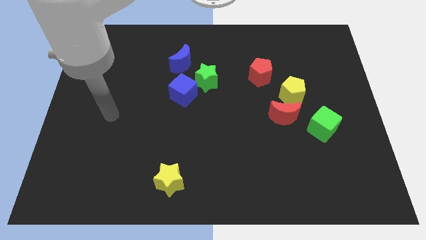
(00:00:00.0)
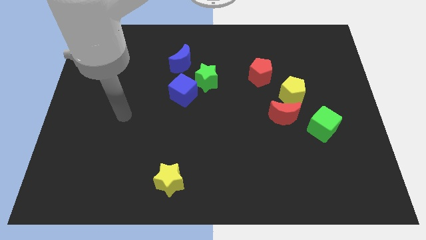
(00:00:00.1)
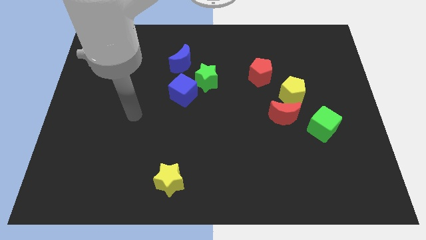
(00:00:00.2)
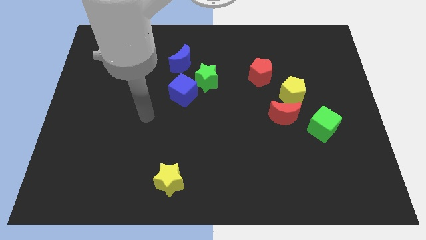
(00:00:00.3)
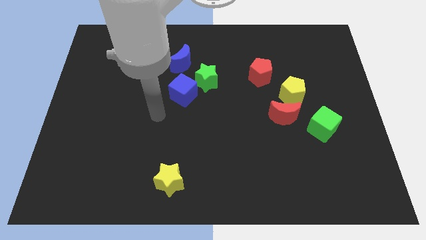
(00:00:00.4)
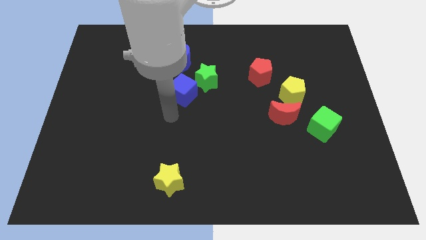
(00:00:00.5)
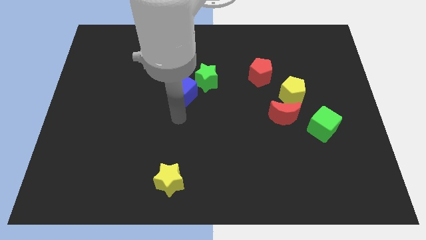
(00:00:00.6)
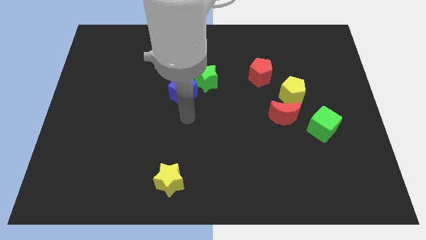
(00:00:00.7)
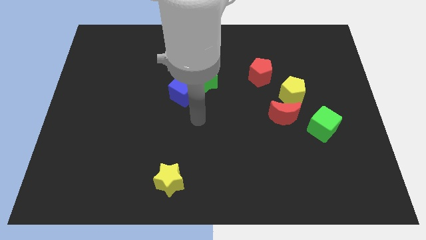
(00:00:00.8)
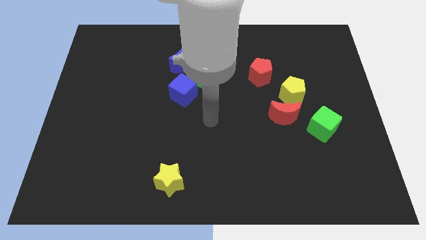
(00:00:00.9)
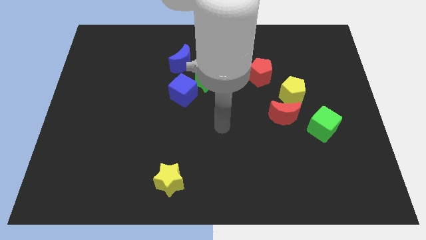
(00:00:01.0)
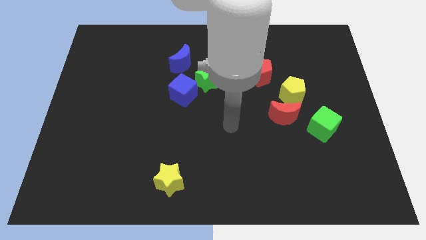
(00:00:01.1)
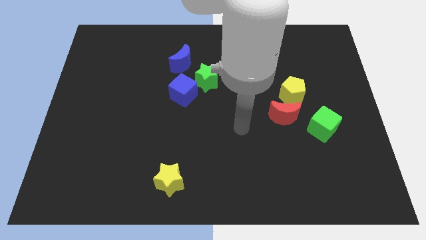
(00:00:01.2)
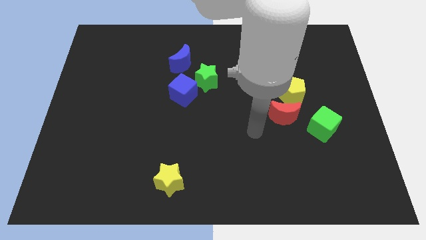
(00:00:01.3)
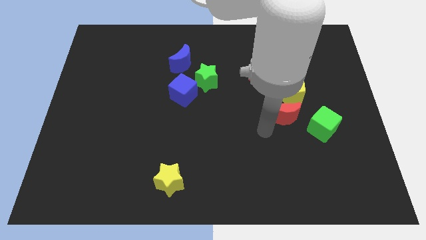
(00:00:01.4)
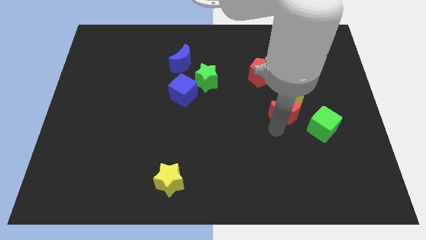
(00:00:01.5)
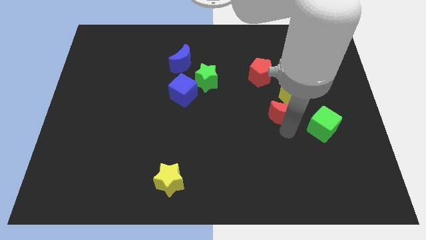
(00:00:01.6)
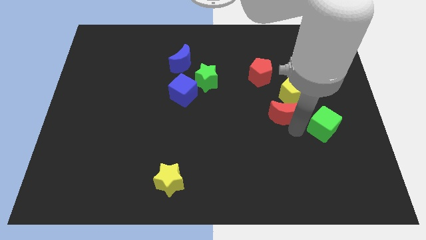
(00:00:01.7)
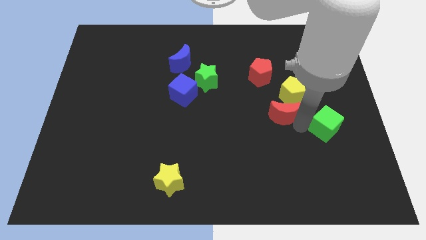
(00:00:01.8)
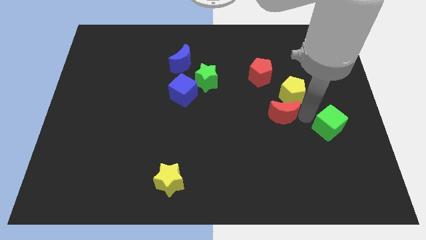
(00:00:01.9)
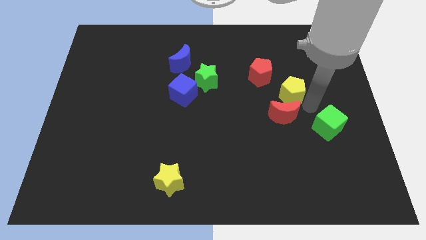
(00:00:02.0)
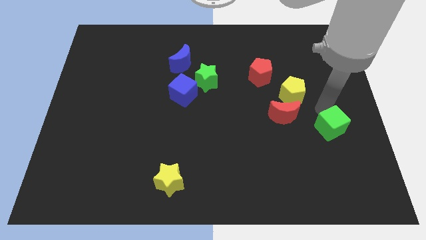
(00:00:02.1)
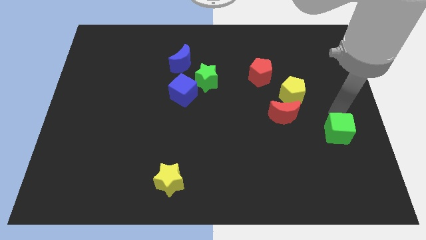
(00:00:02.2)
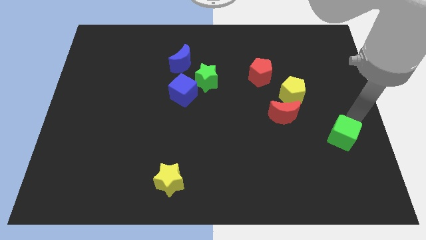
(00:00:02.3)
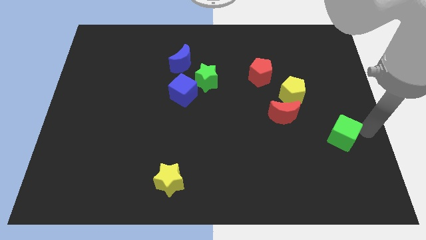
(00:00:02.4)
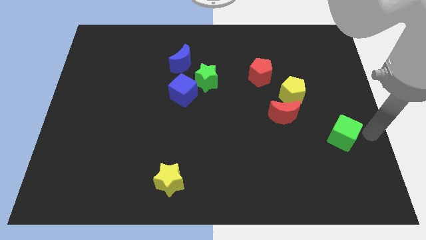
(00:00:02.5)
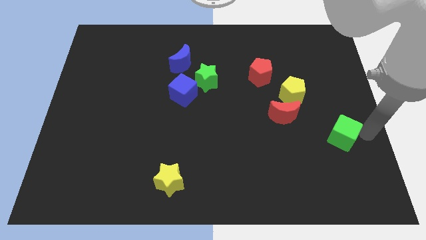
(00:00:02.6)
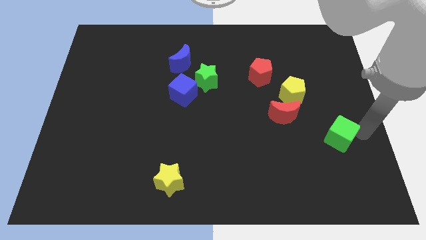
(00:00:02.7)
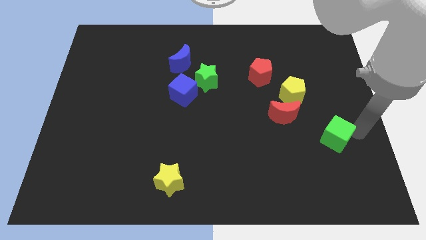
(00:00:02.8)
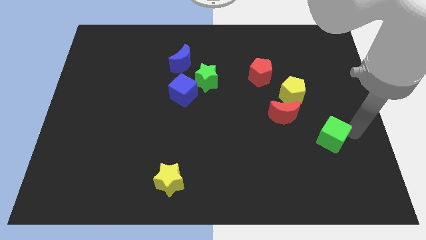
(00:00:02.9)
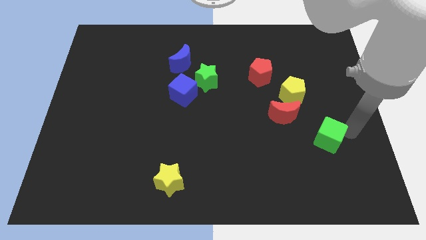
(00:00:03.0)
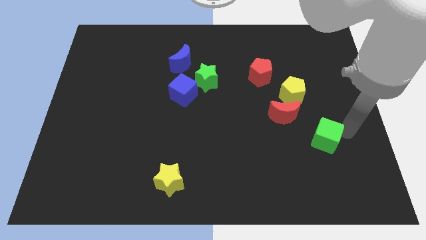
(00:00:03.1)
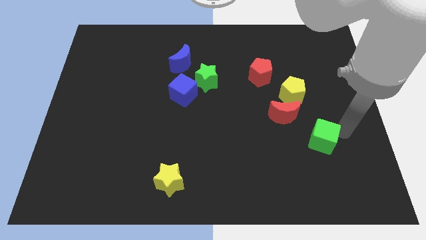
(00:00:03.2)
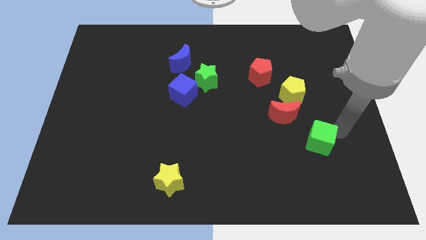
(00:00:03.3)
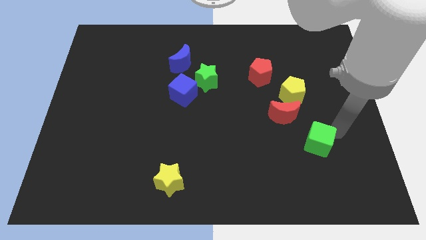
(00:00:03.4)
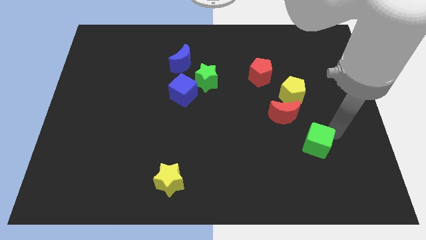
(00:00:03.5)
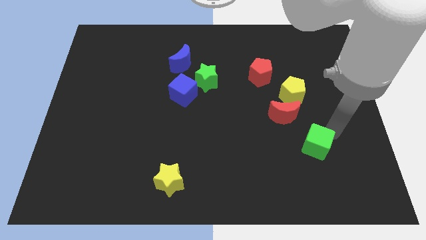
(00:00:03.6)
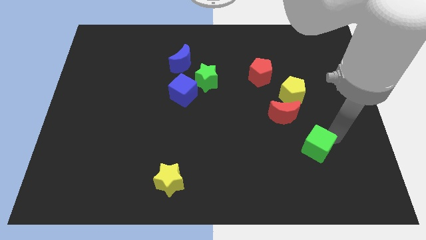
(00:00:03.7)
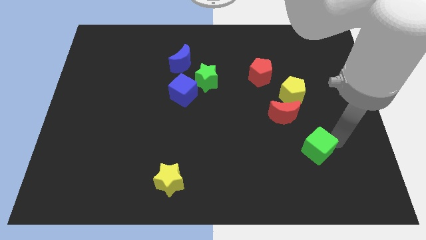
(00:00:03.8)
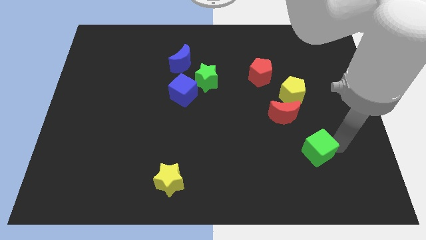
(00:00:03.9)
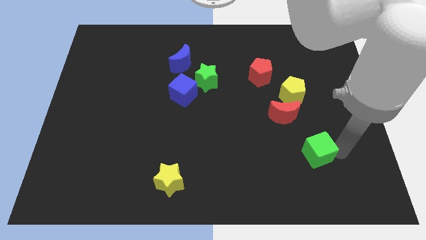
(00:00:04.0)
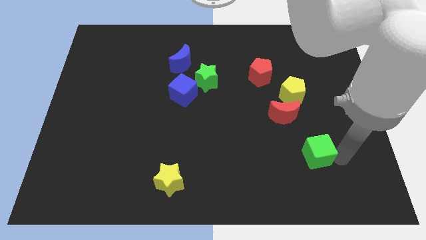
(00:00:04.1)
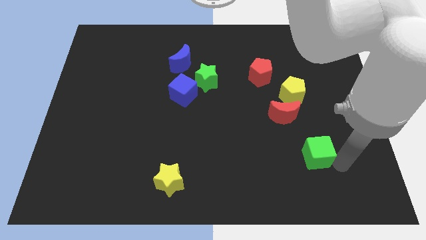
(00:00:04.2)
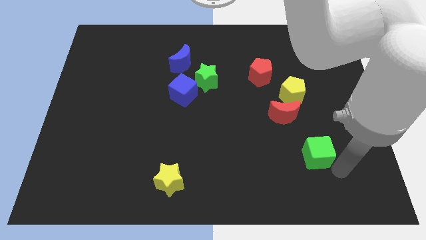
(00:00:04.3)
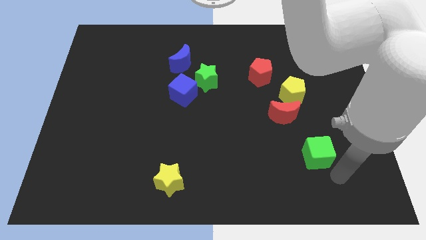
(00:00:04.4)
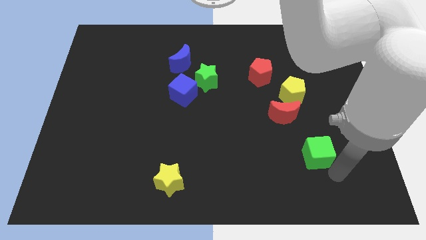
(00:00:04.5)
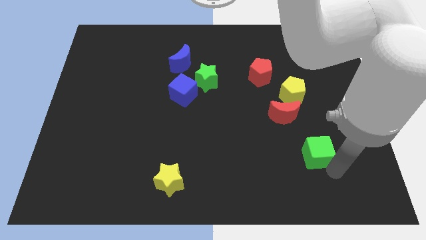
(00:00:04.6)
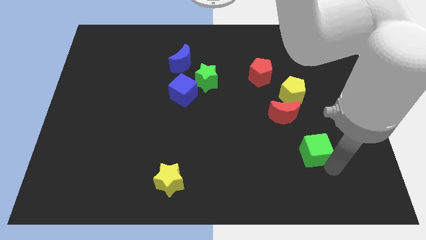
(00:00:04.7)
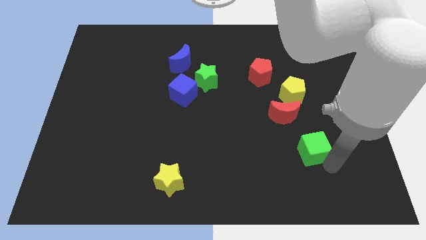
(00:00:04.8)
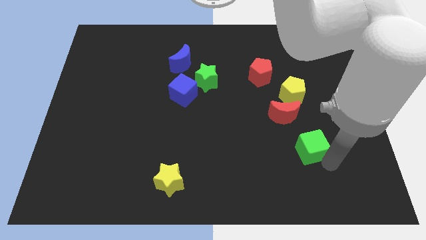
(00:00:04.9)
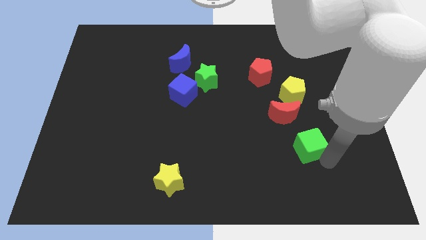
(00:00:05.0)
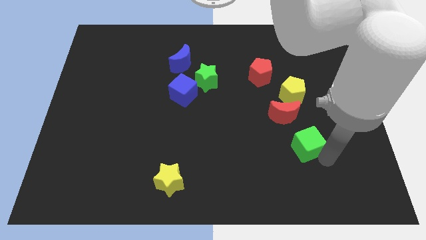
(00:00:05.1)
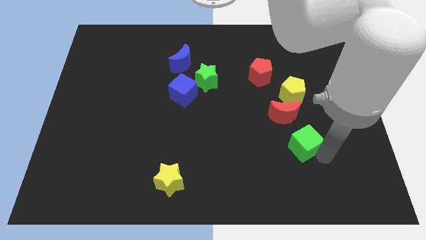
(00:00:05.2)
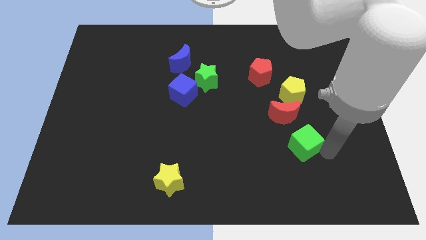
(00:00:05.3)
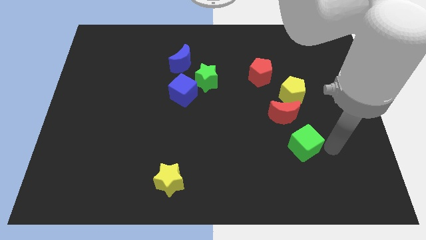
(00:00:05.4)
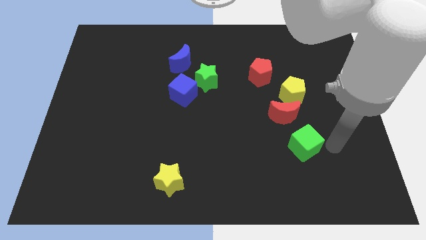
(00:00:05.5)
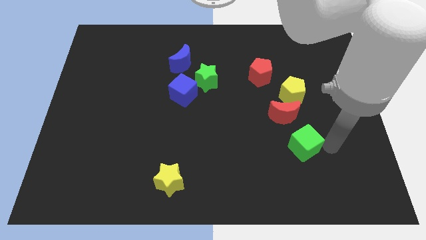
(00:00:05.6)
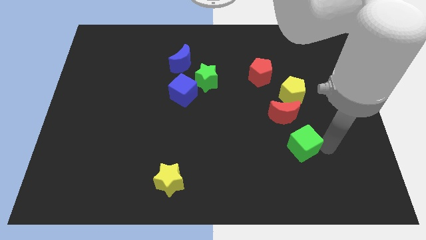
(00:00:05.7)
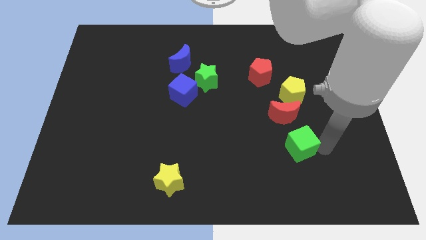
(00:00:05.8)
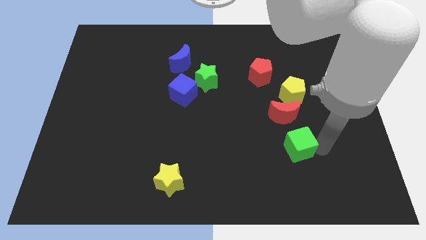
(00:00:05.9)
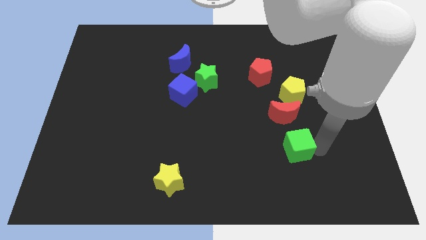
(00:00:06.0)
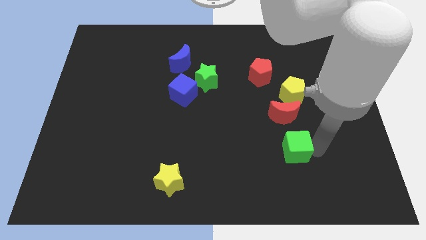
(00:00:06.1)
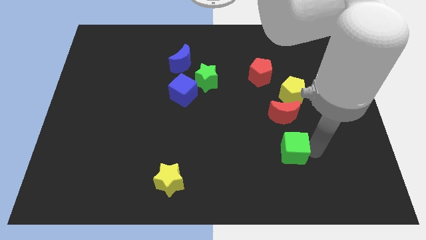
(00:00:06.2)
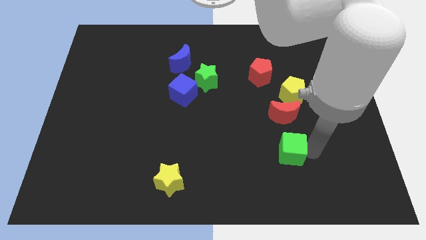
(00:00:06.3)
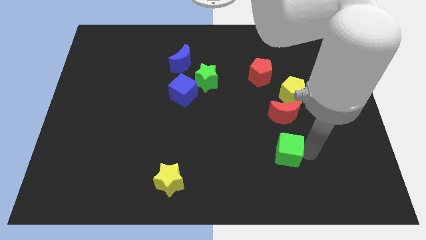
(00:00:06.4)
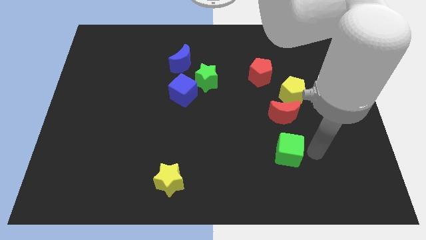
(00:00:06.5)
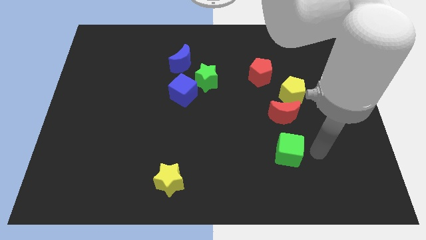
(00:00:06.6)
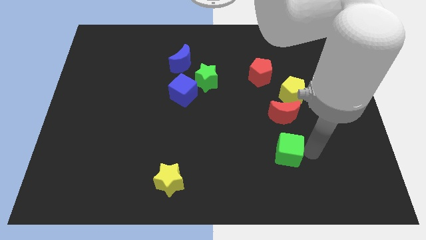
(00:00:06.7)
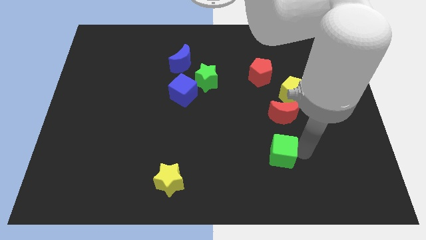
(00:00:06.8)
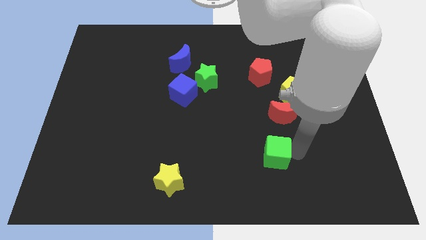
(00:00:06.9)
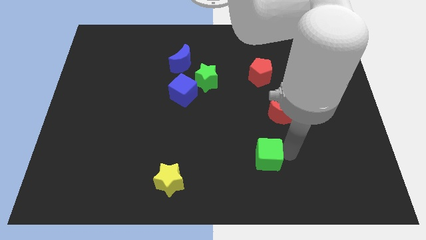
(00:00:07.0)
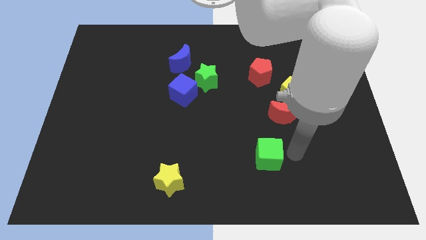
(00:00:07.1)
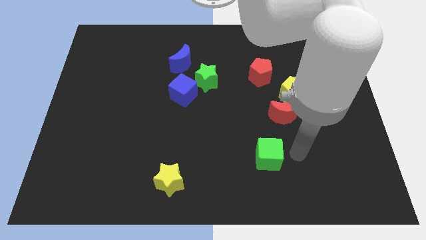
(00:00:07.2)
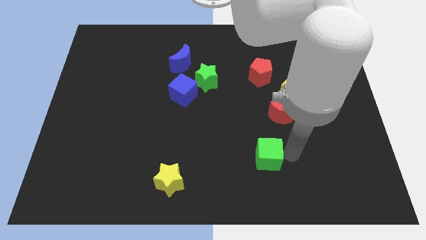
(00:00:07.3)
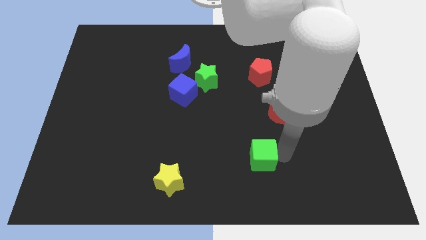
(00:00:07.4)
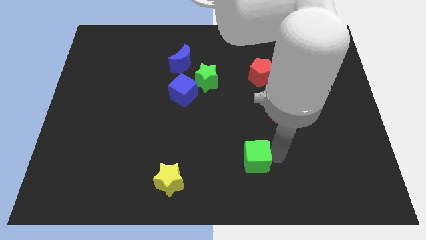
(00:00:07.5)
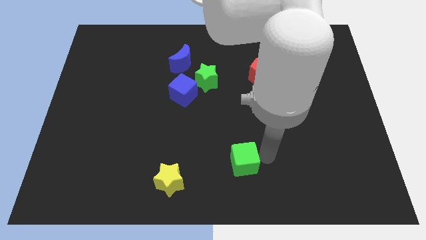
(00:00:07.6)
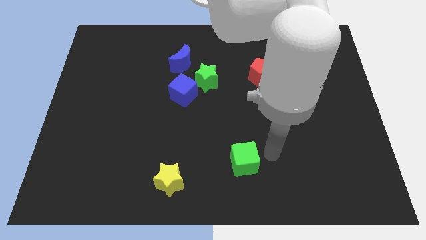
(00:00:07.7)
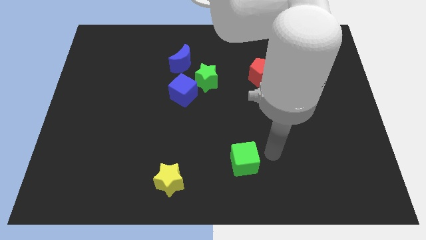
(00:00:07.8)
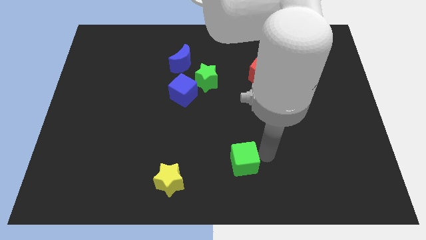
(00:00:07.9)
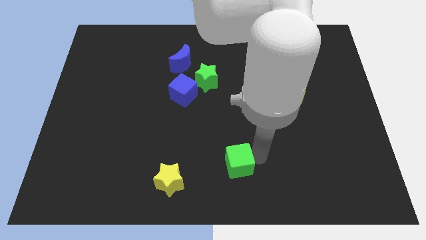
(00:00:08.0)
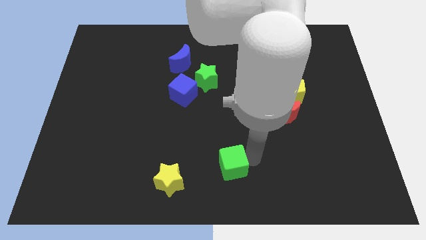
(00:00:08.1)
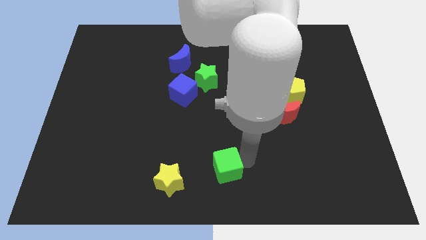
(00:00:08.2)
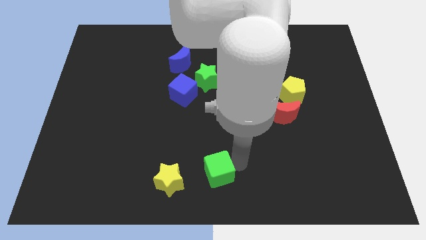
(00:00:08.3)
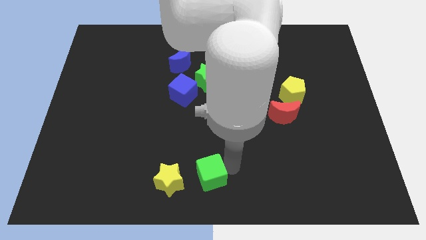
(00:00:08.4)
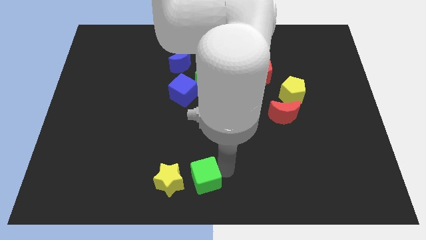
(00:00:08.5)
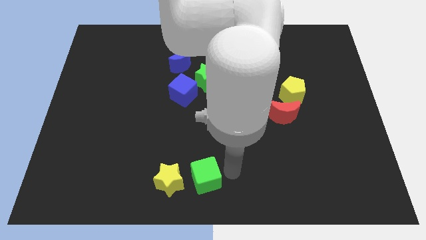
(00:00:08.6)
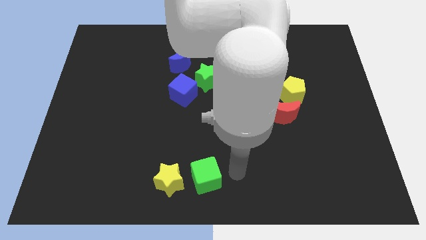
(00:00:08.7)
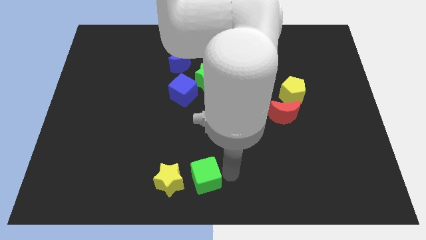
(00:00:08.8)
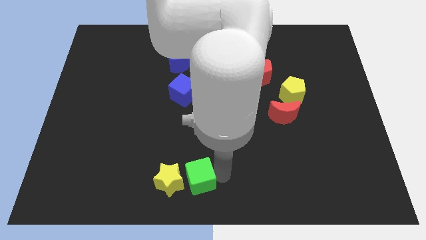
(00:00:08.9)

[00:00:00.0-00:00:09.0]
slide the green cube next to the yellow star
